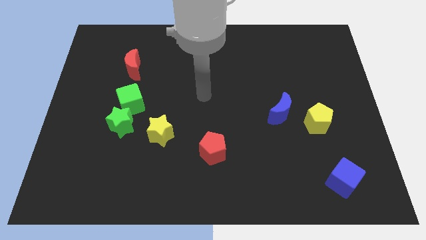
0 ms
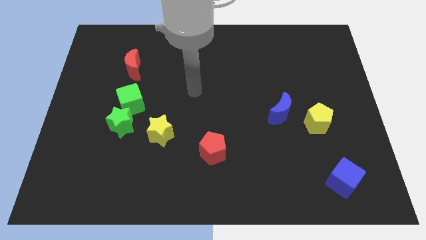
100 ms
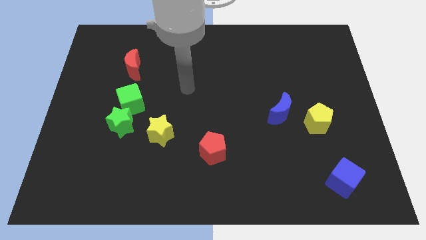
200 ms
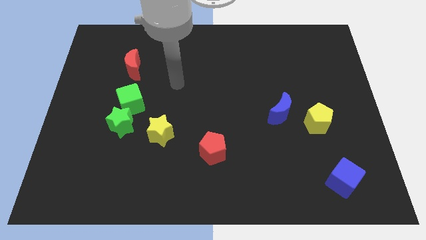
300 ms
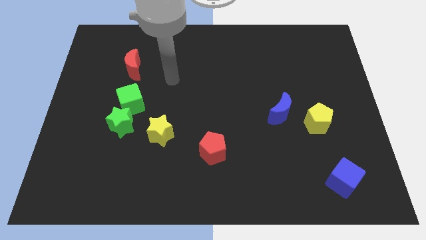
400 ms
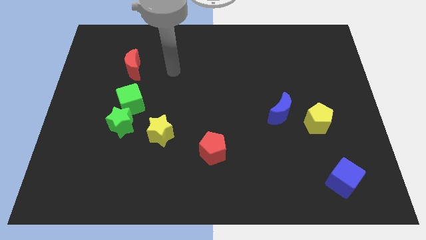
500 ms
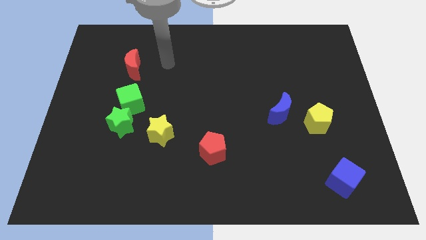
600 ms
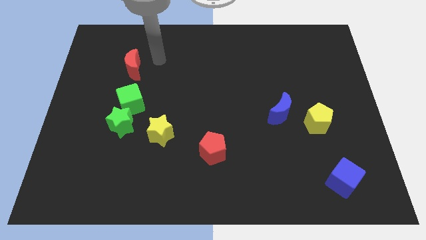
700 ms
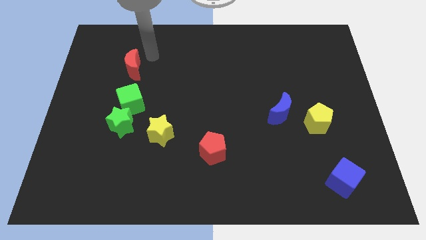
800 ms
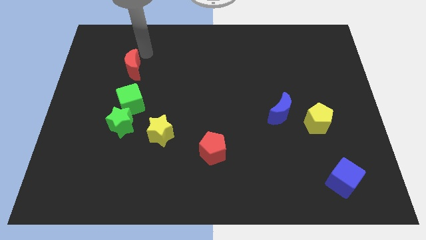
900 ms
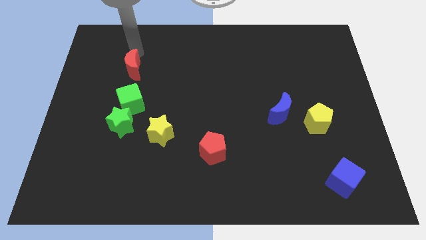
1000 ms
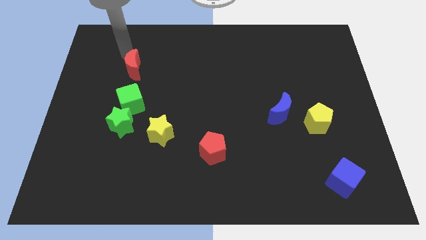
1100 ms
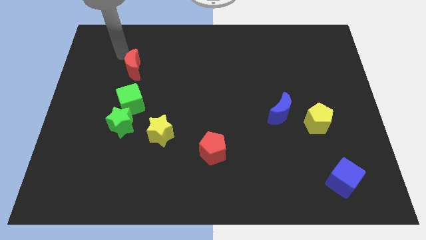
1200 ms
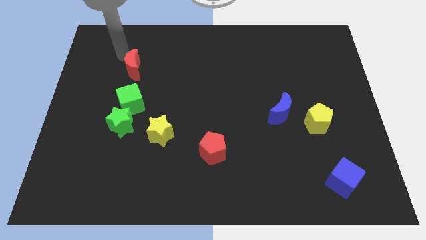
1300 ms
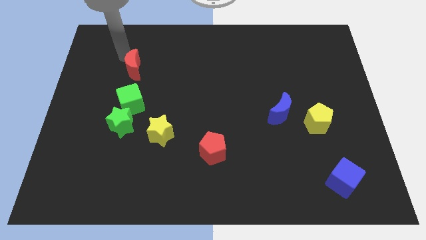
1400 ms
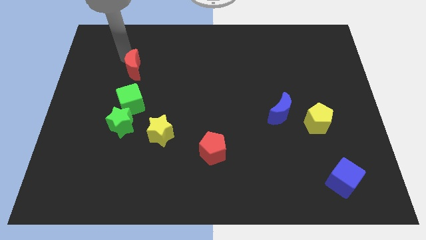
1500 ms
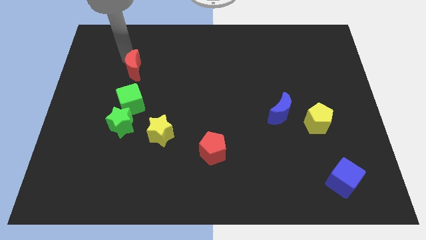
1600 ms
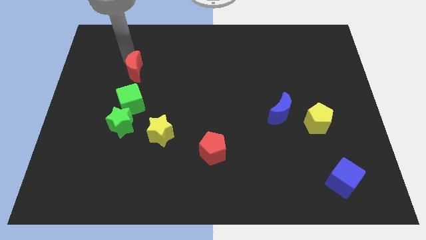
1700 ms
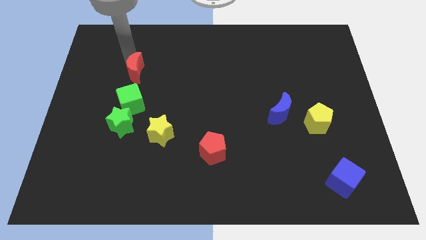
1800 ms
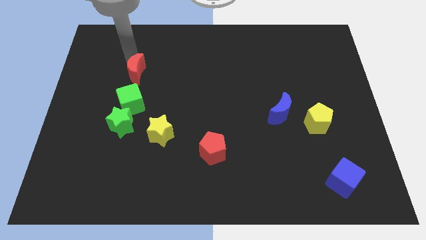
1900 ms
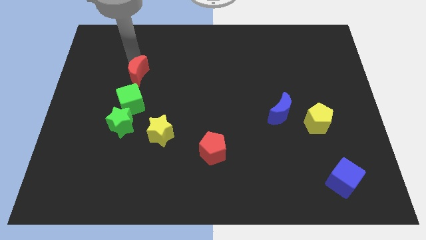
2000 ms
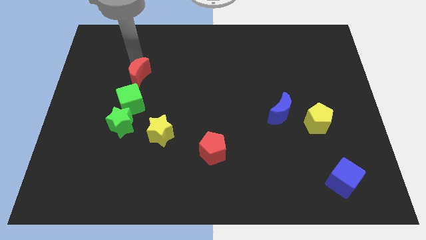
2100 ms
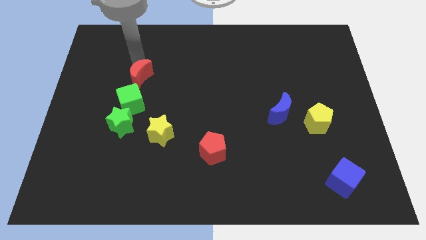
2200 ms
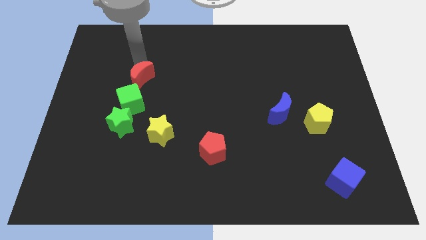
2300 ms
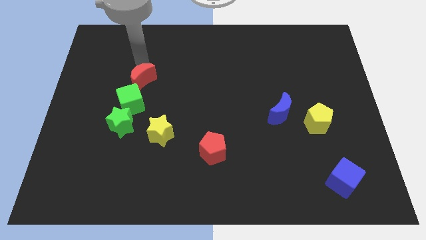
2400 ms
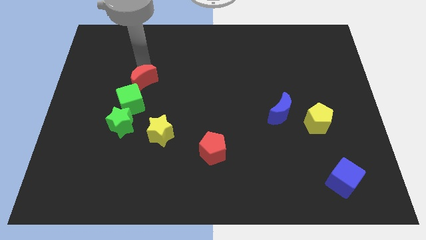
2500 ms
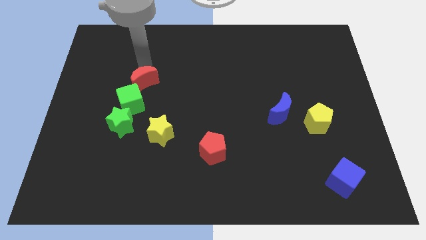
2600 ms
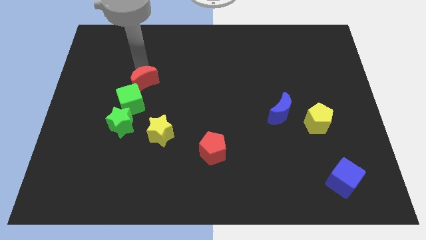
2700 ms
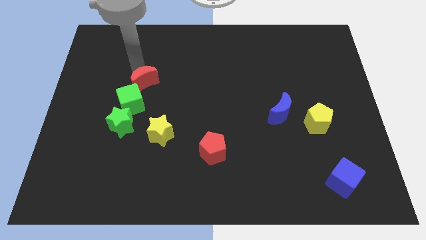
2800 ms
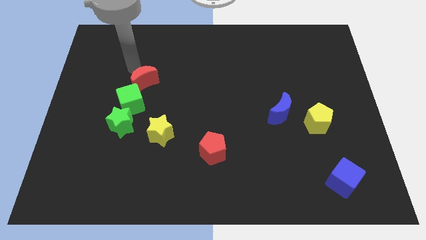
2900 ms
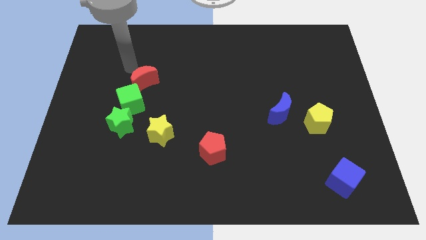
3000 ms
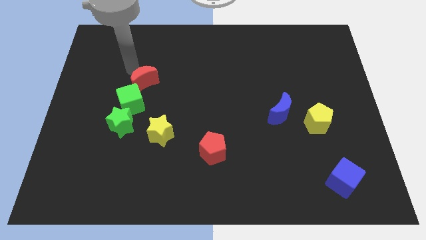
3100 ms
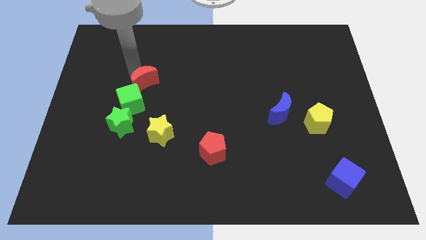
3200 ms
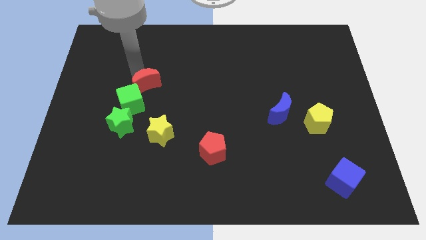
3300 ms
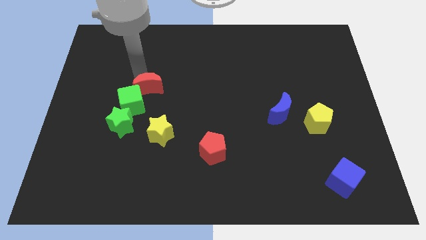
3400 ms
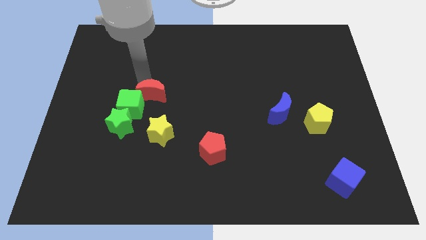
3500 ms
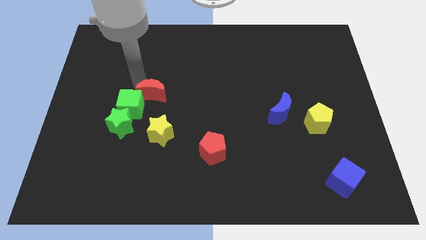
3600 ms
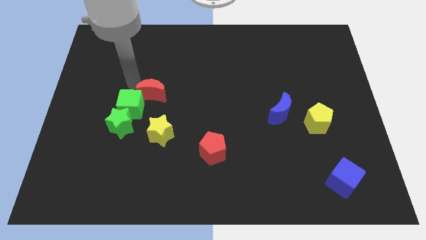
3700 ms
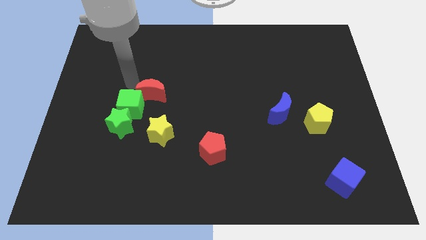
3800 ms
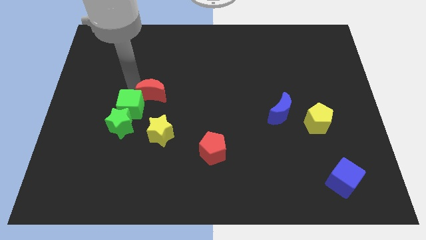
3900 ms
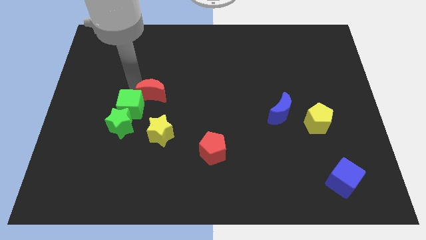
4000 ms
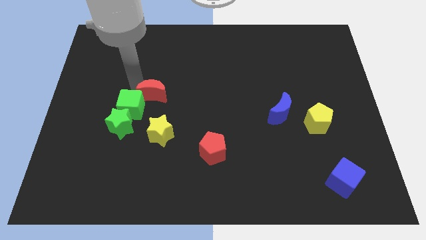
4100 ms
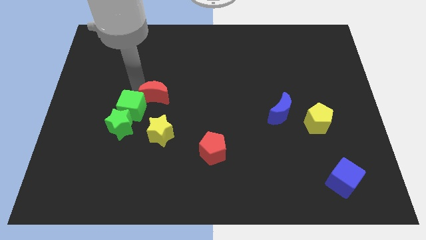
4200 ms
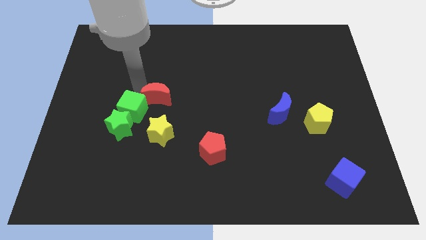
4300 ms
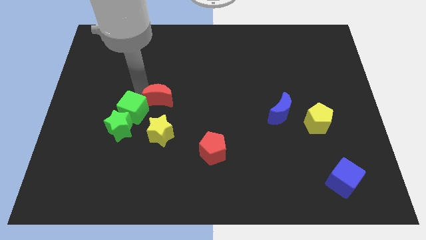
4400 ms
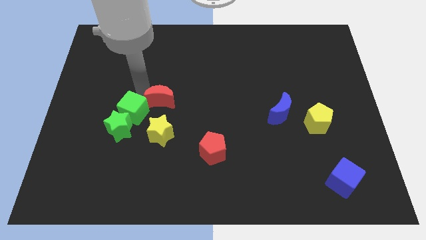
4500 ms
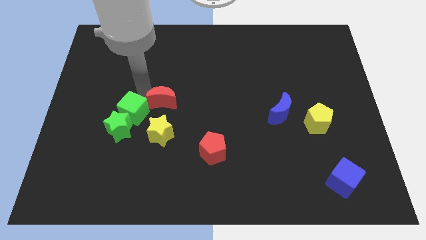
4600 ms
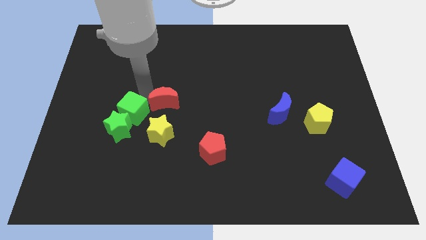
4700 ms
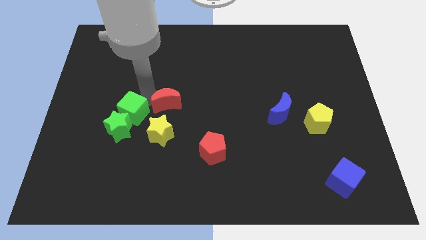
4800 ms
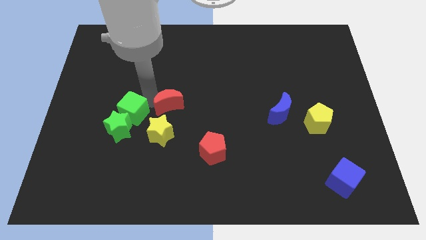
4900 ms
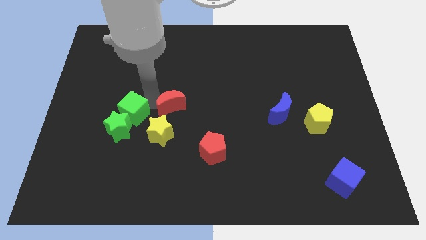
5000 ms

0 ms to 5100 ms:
put the red moon to the top right side of the yellow star

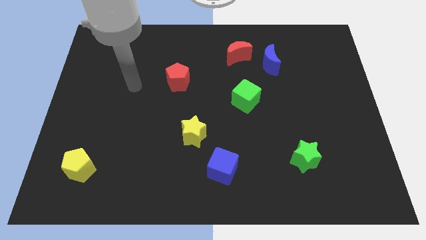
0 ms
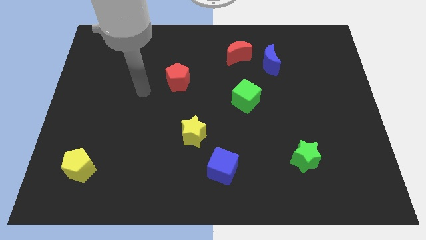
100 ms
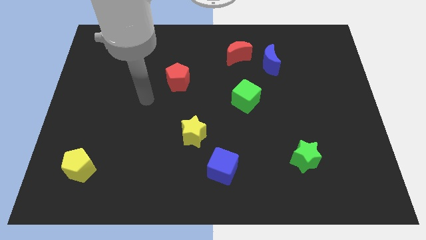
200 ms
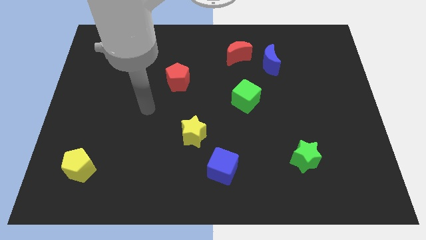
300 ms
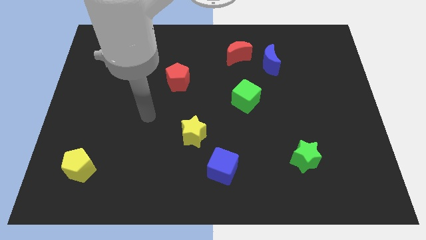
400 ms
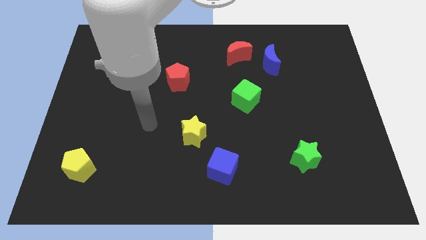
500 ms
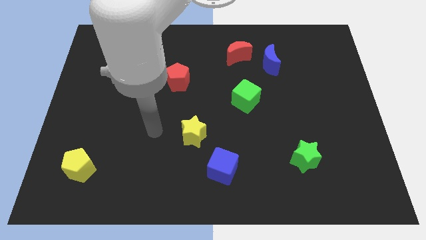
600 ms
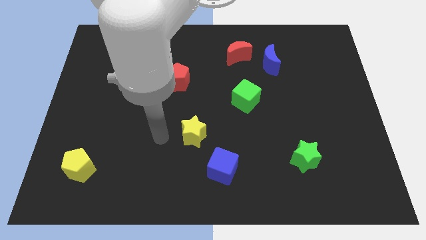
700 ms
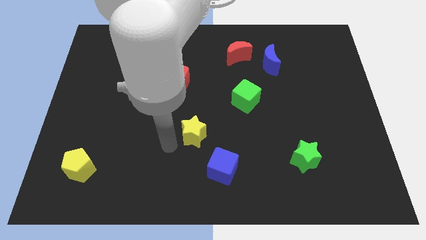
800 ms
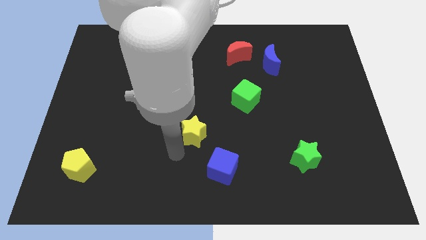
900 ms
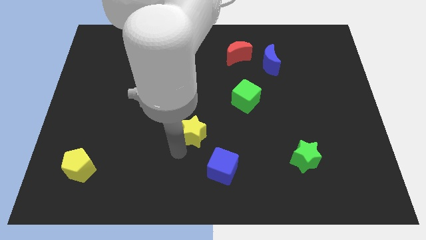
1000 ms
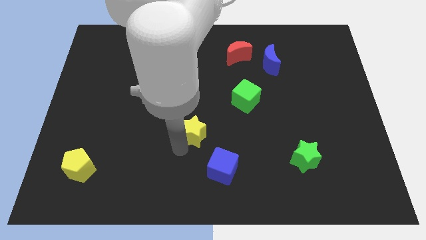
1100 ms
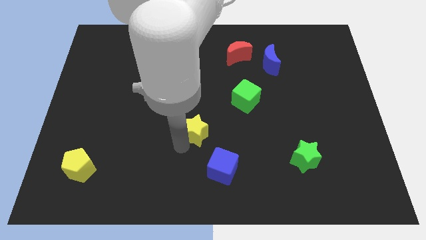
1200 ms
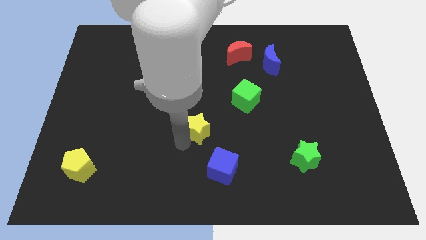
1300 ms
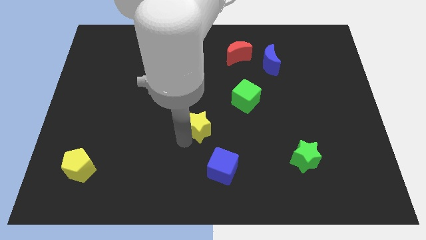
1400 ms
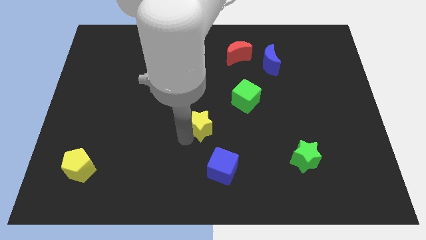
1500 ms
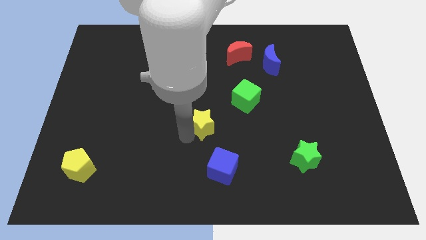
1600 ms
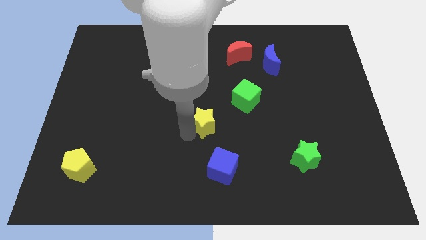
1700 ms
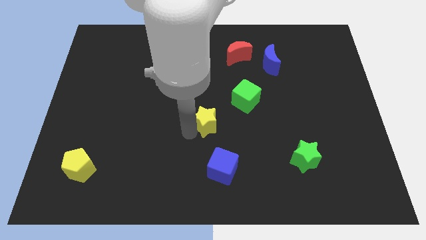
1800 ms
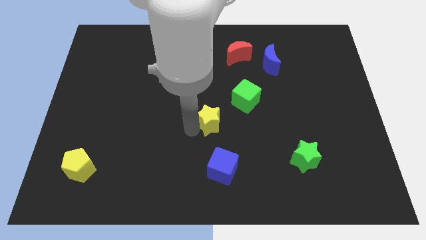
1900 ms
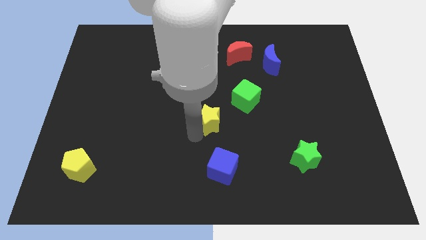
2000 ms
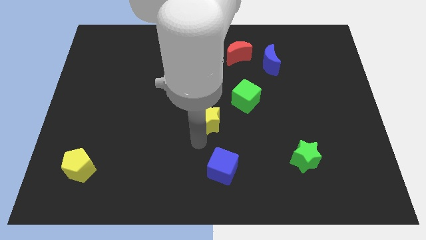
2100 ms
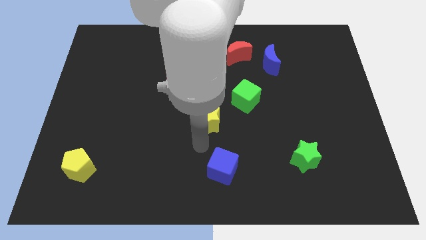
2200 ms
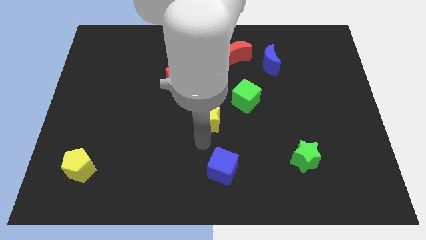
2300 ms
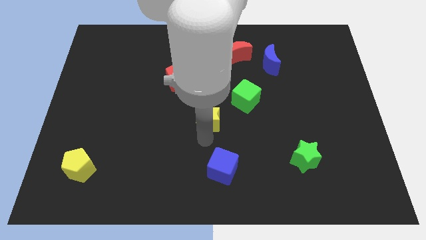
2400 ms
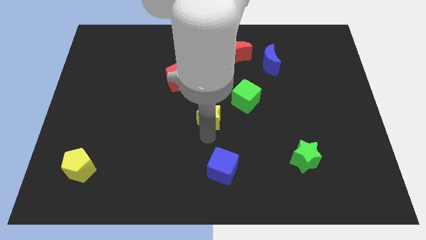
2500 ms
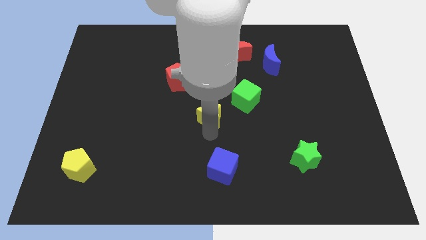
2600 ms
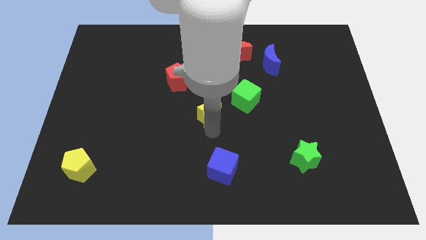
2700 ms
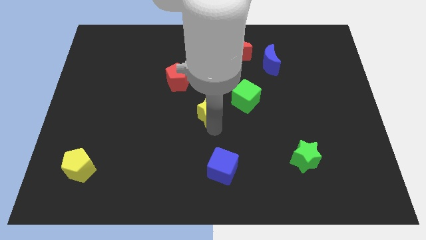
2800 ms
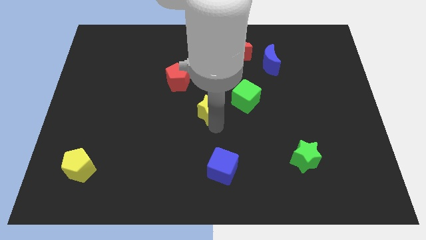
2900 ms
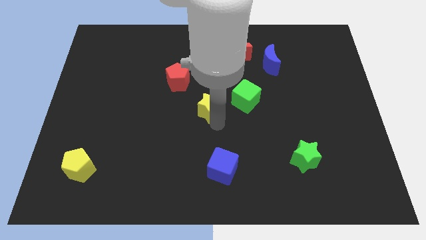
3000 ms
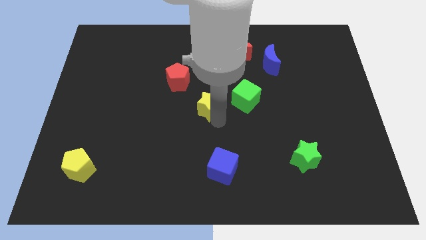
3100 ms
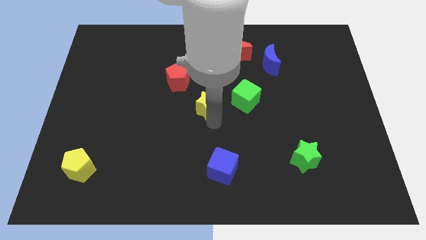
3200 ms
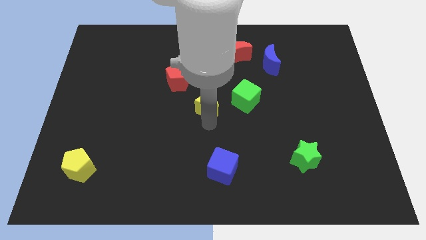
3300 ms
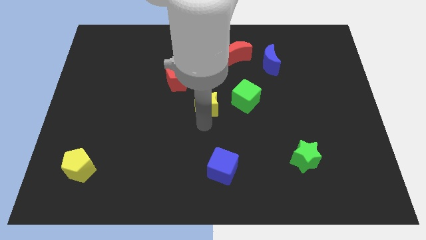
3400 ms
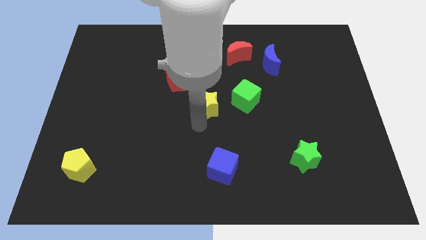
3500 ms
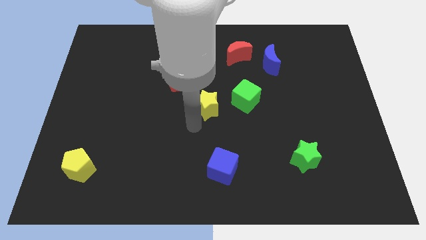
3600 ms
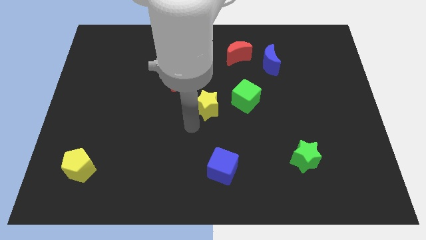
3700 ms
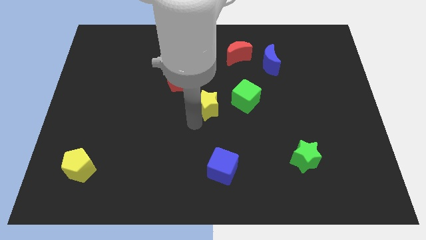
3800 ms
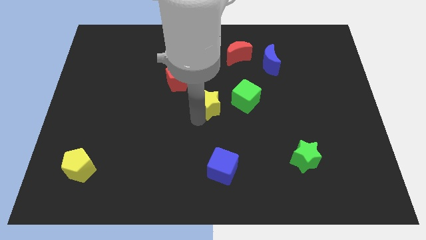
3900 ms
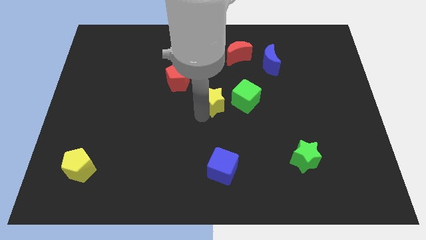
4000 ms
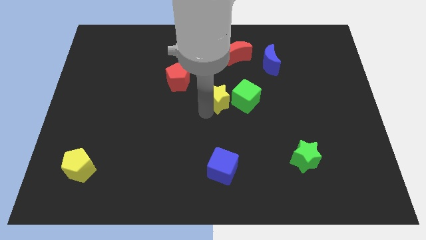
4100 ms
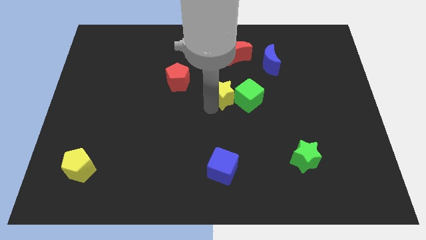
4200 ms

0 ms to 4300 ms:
move the yellow star to the bottom of the red moon
